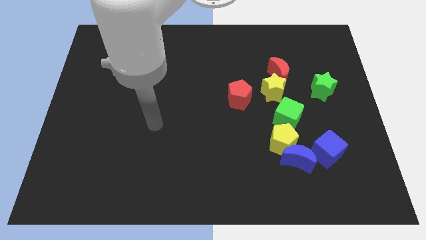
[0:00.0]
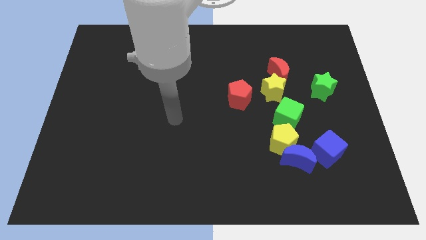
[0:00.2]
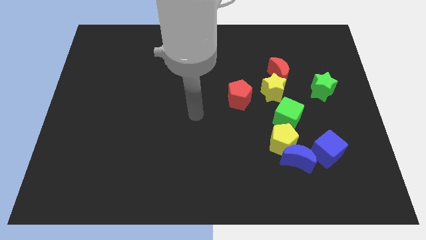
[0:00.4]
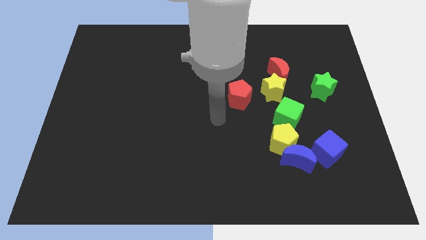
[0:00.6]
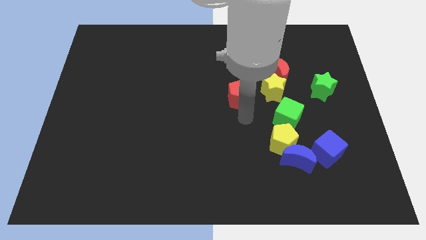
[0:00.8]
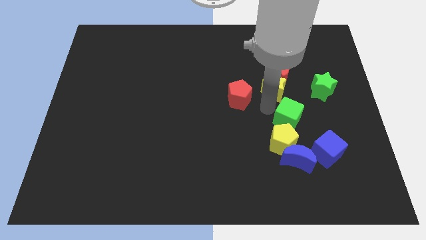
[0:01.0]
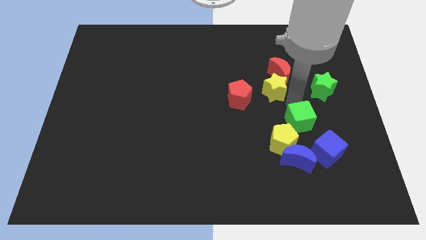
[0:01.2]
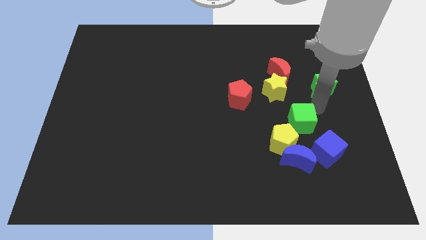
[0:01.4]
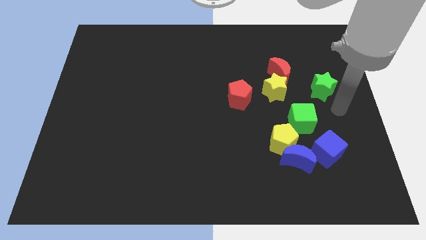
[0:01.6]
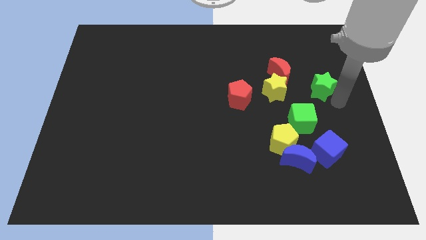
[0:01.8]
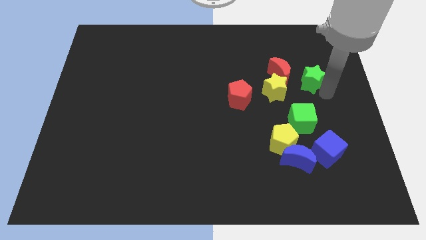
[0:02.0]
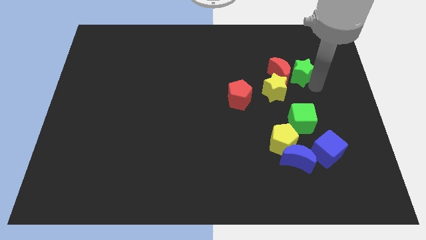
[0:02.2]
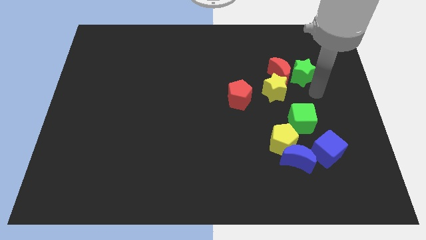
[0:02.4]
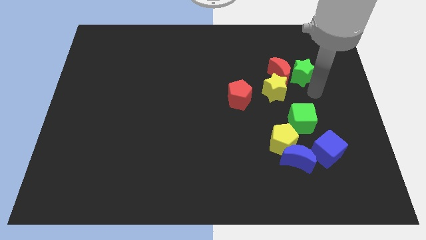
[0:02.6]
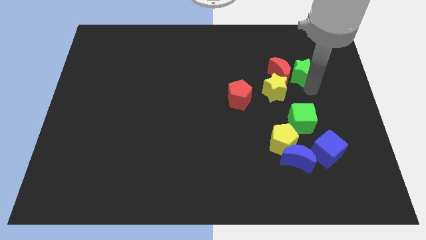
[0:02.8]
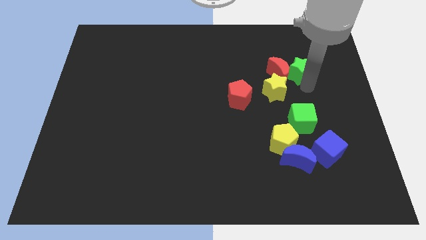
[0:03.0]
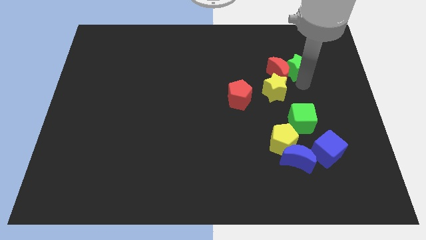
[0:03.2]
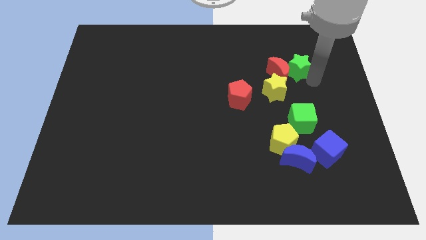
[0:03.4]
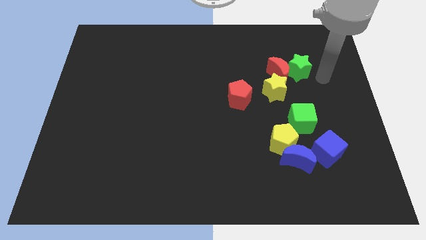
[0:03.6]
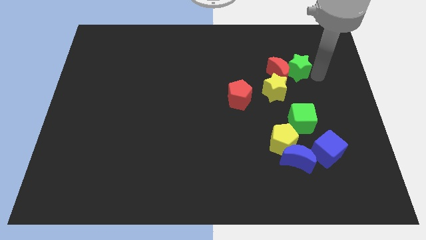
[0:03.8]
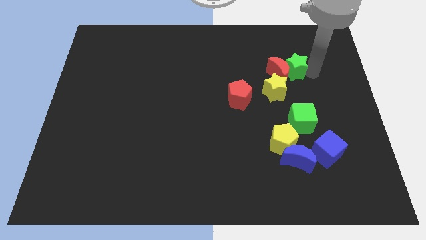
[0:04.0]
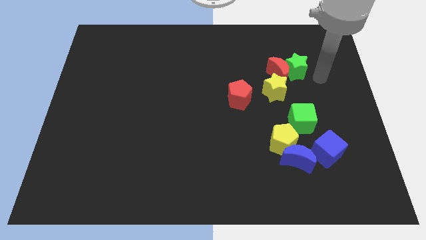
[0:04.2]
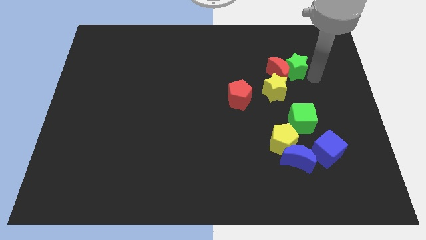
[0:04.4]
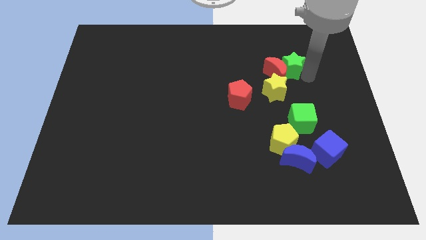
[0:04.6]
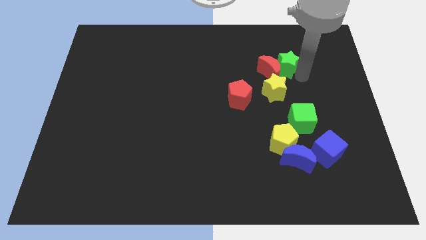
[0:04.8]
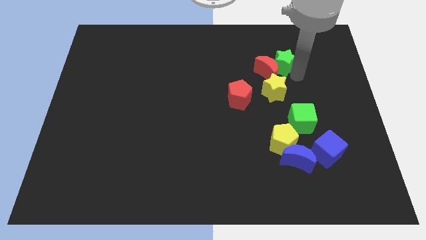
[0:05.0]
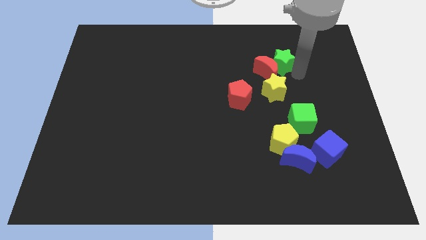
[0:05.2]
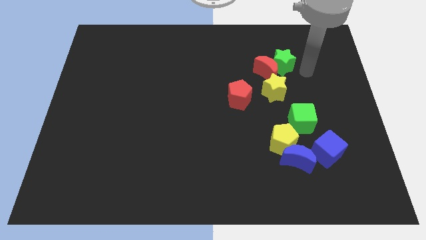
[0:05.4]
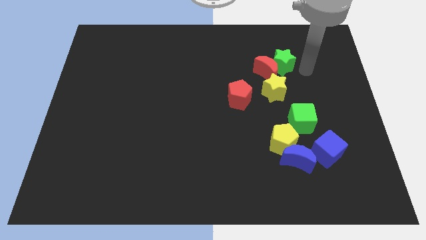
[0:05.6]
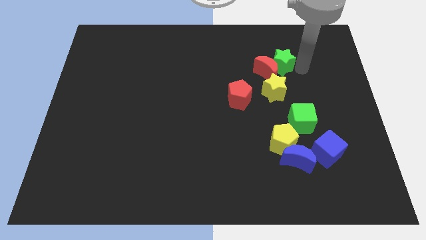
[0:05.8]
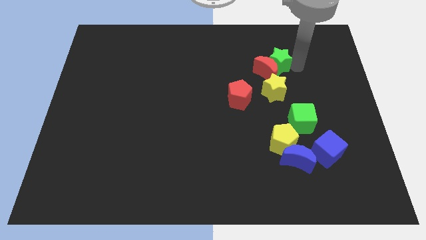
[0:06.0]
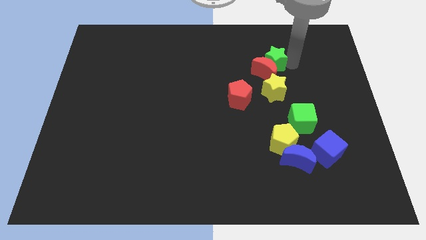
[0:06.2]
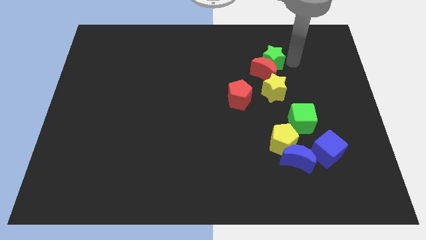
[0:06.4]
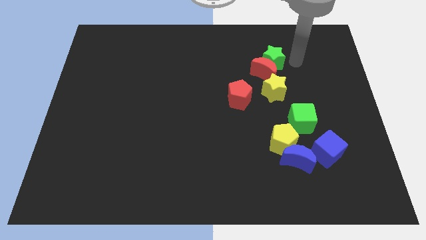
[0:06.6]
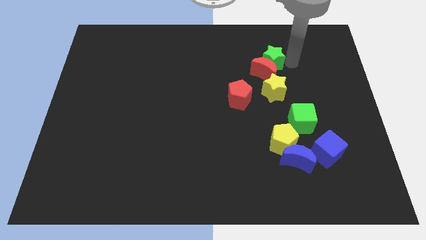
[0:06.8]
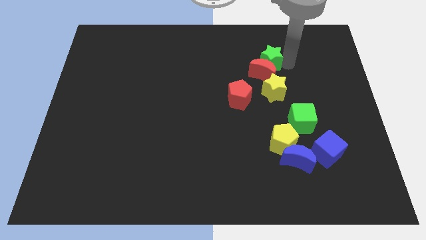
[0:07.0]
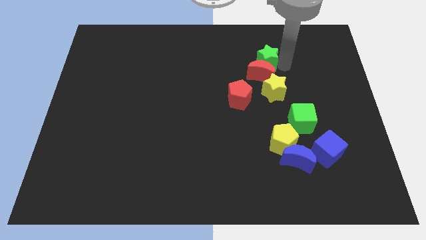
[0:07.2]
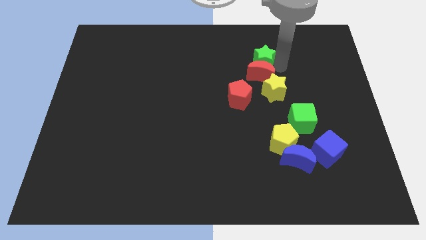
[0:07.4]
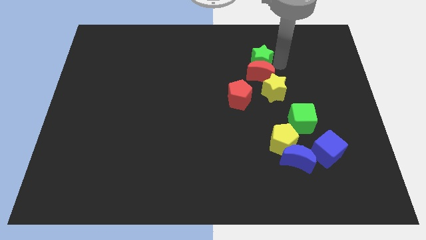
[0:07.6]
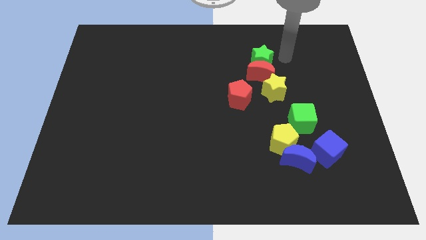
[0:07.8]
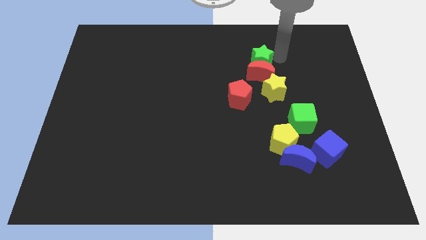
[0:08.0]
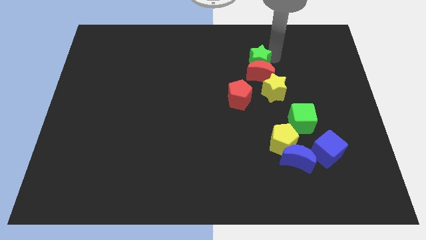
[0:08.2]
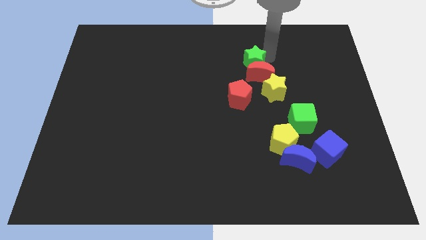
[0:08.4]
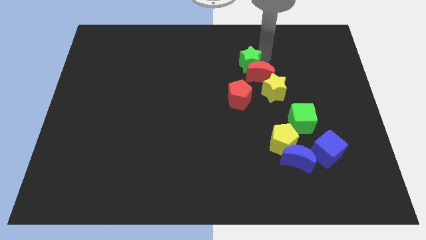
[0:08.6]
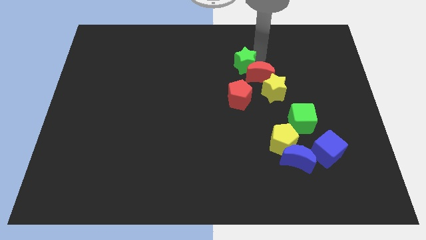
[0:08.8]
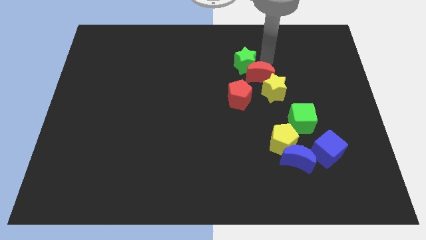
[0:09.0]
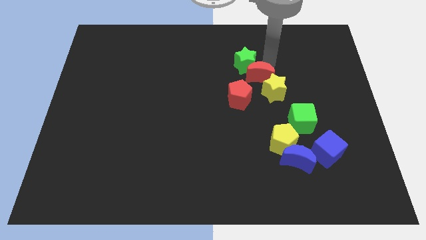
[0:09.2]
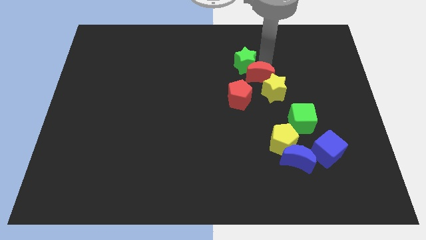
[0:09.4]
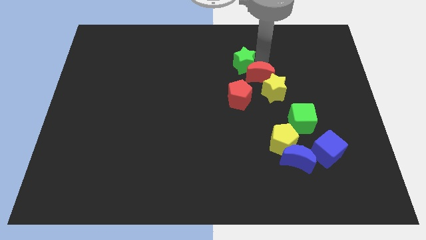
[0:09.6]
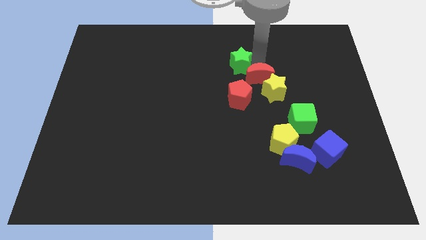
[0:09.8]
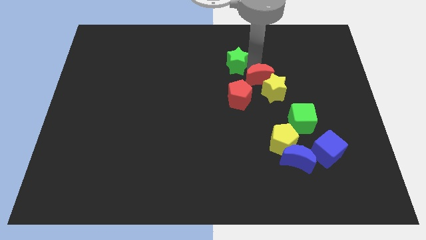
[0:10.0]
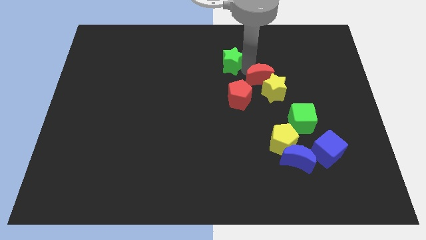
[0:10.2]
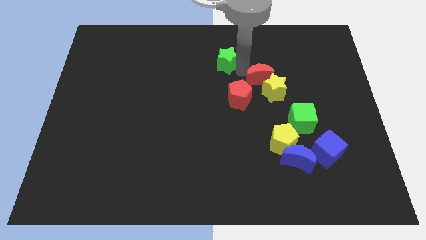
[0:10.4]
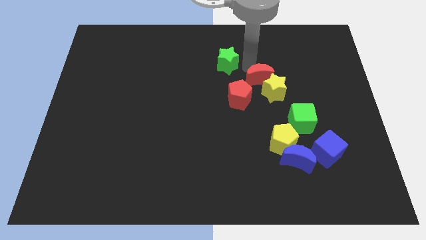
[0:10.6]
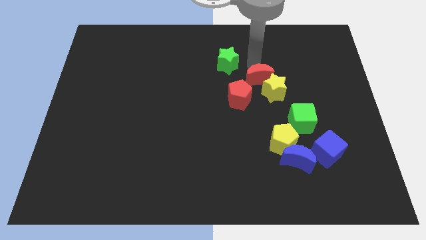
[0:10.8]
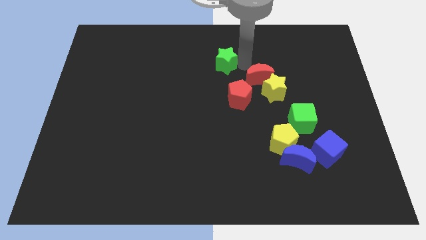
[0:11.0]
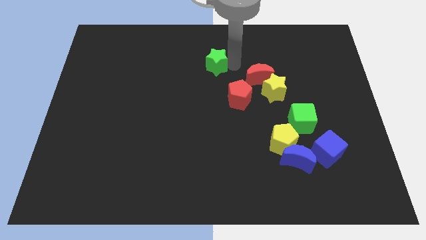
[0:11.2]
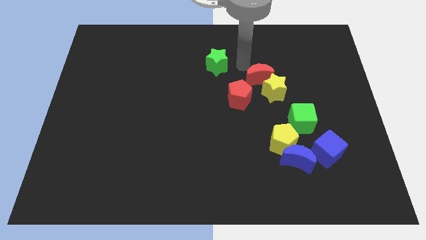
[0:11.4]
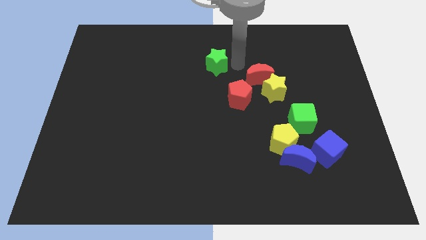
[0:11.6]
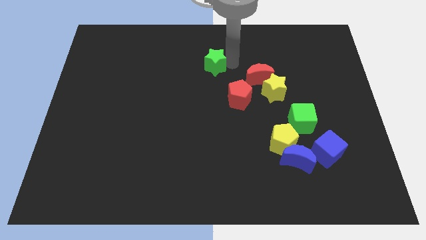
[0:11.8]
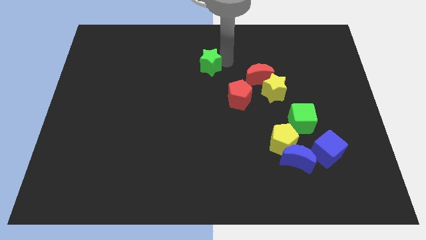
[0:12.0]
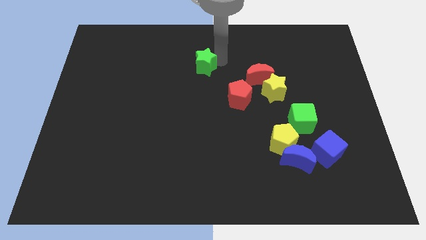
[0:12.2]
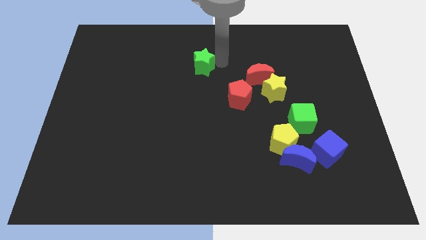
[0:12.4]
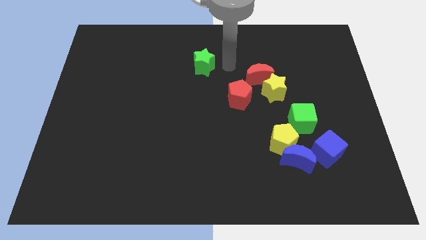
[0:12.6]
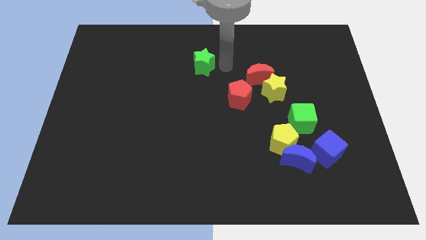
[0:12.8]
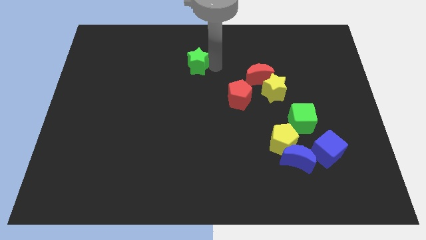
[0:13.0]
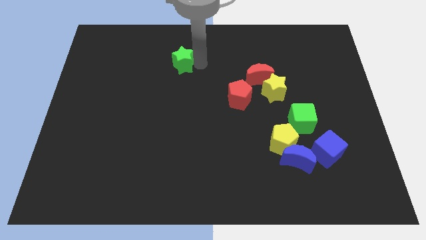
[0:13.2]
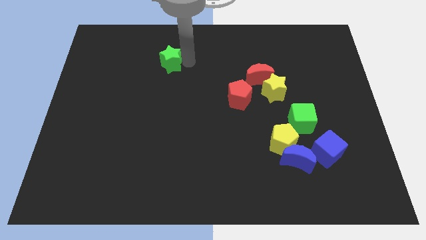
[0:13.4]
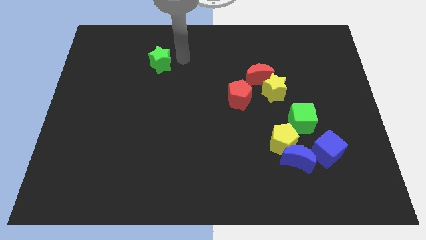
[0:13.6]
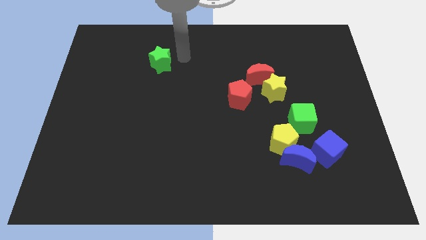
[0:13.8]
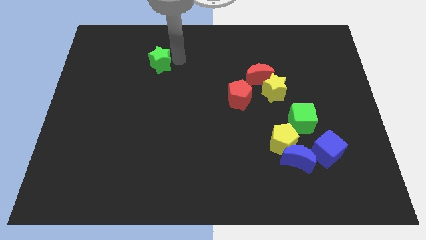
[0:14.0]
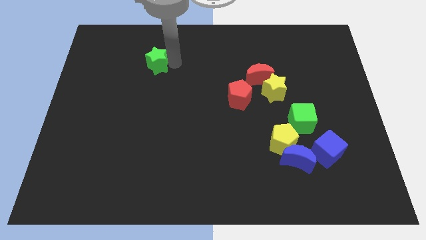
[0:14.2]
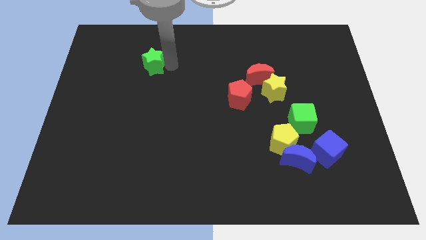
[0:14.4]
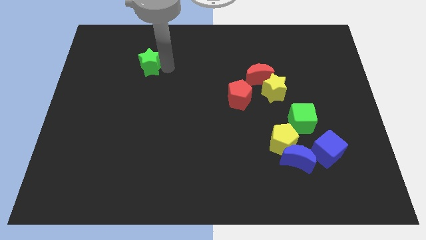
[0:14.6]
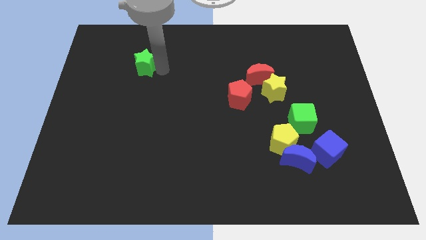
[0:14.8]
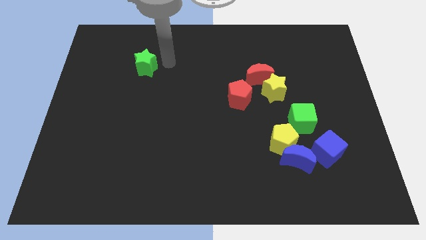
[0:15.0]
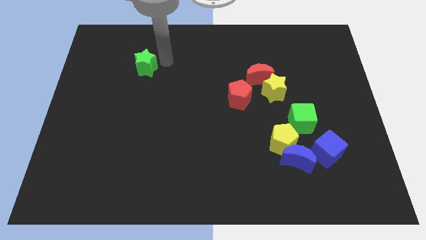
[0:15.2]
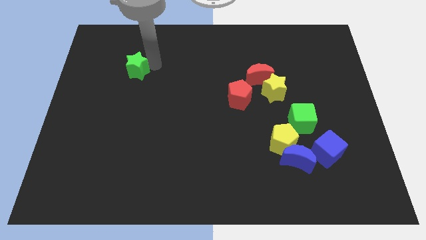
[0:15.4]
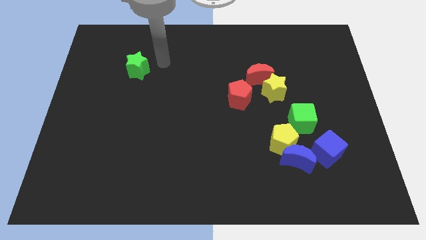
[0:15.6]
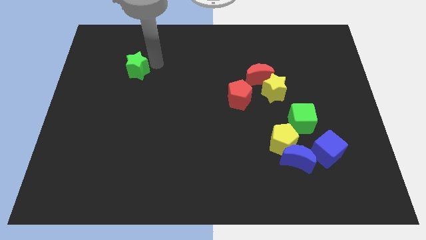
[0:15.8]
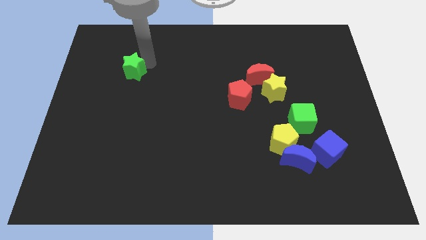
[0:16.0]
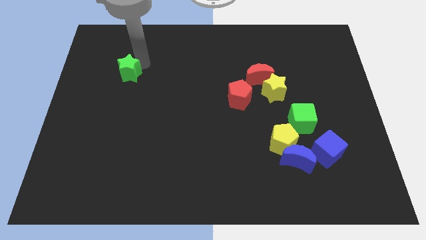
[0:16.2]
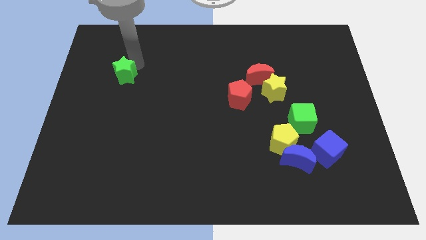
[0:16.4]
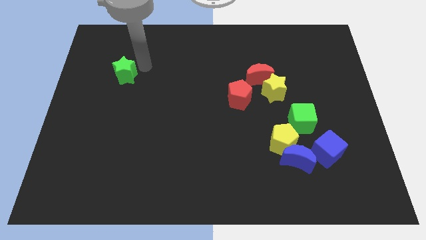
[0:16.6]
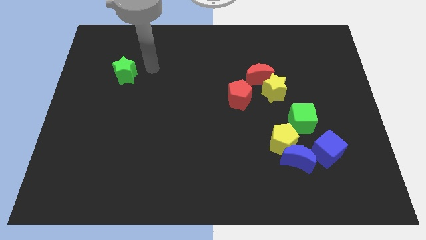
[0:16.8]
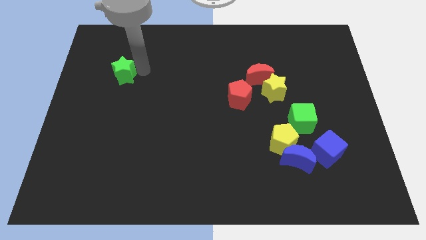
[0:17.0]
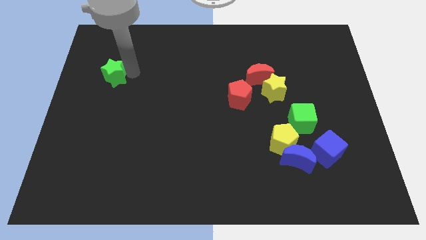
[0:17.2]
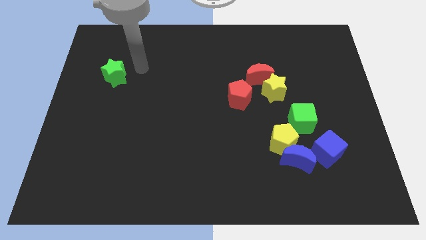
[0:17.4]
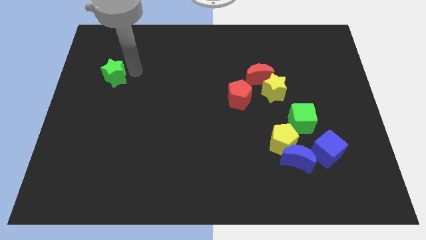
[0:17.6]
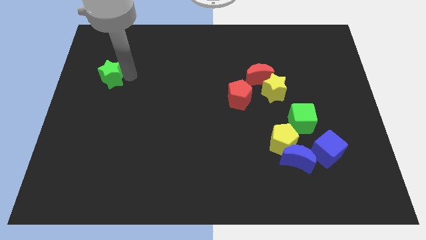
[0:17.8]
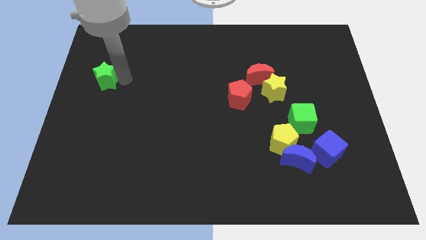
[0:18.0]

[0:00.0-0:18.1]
push the green star to the center left
